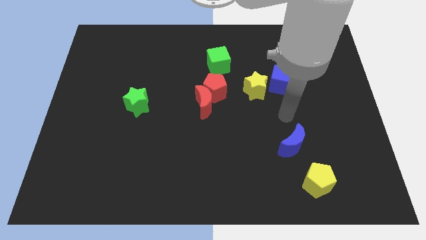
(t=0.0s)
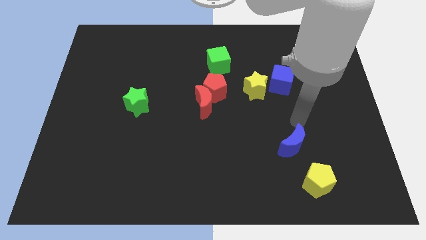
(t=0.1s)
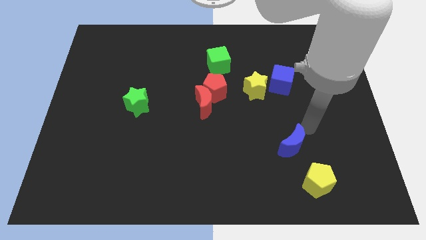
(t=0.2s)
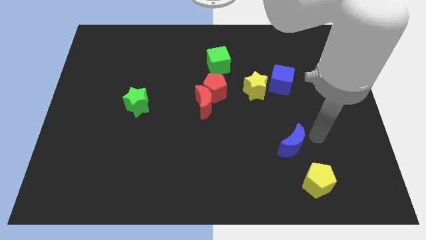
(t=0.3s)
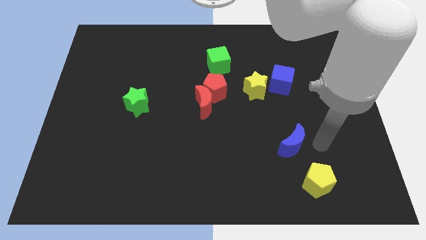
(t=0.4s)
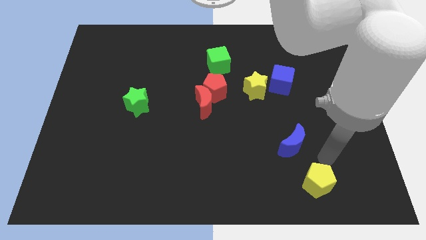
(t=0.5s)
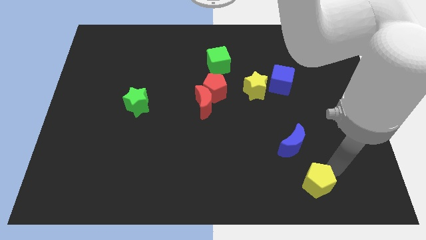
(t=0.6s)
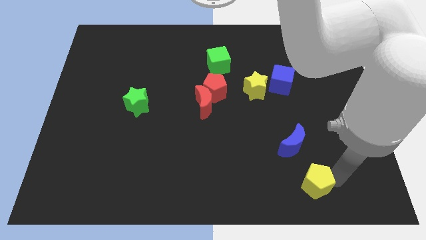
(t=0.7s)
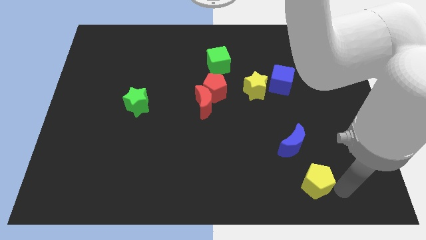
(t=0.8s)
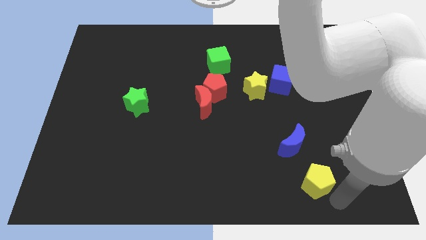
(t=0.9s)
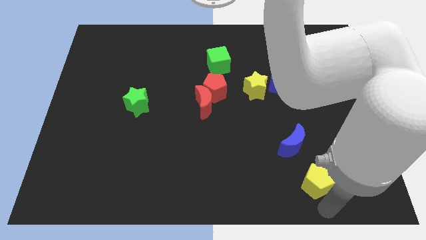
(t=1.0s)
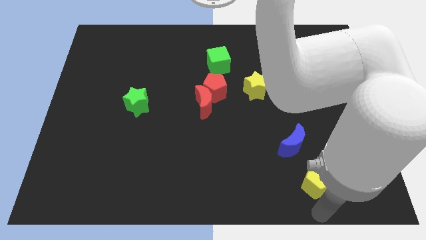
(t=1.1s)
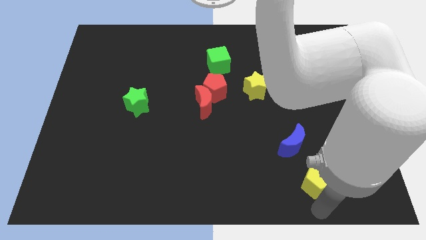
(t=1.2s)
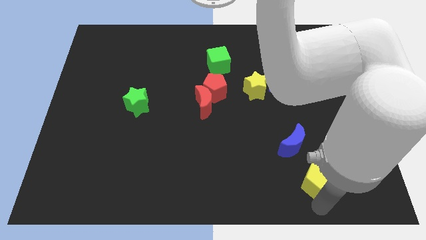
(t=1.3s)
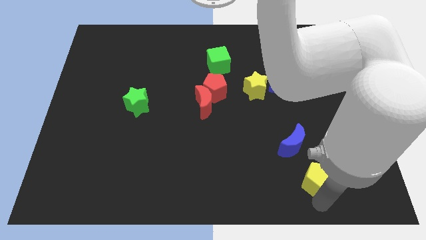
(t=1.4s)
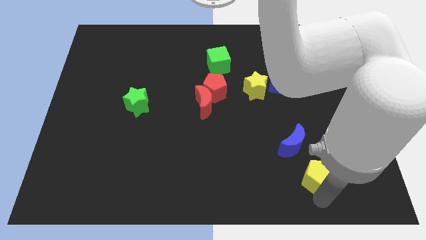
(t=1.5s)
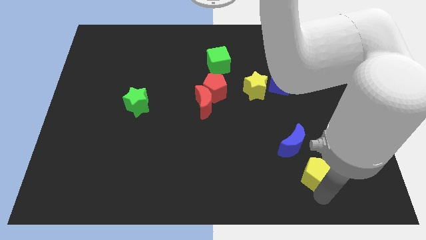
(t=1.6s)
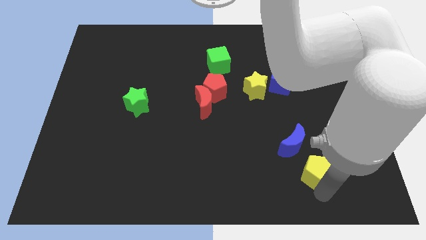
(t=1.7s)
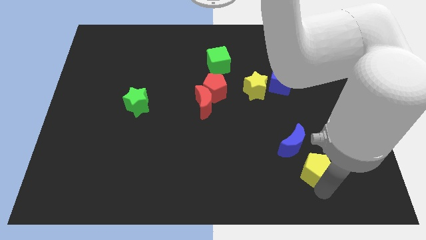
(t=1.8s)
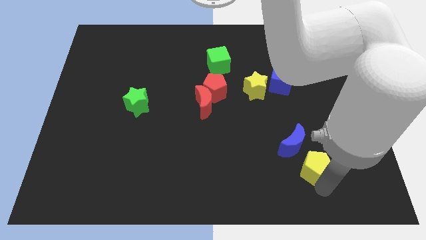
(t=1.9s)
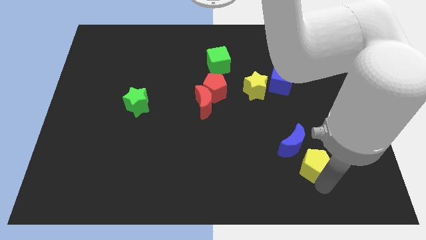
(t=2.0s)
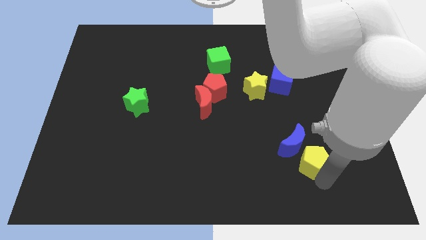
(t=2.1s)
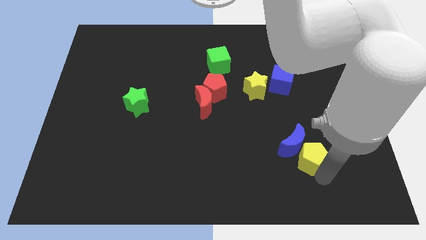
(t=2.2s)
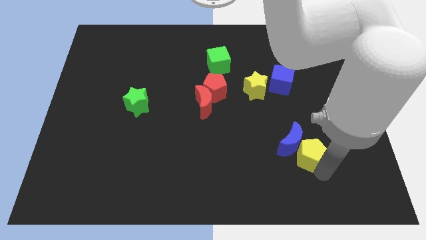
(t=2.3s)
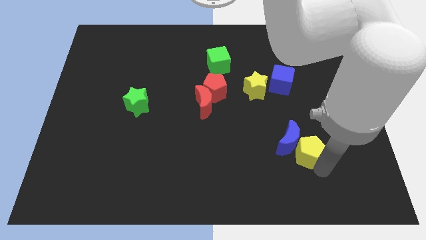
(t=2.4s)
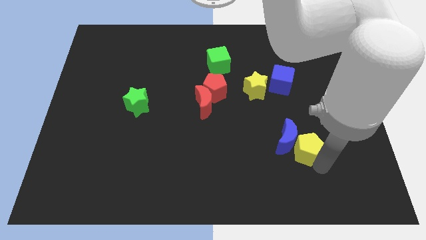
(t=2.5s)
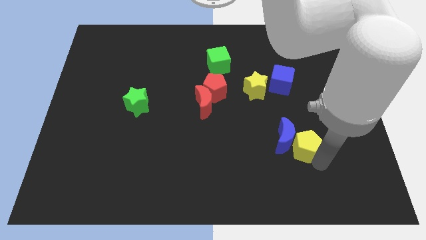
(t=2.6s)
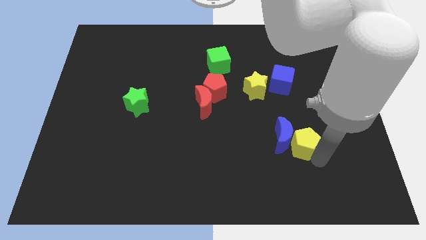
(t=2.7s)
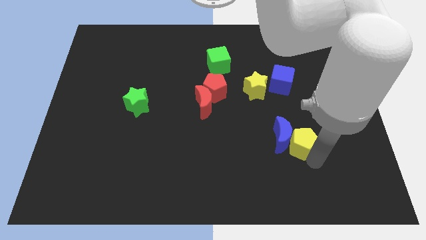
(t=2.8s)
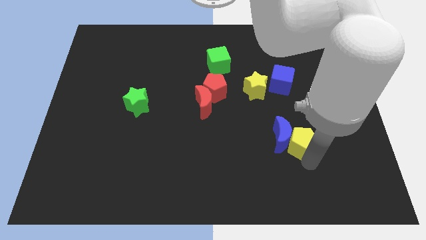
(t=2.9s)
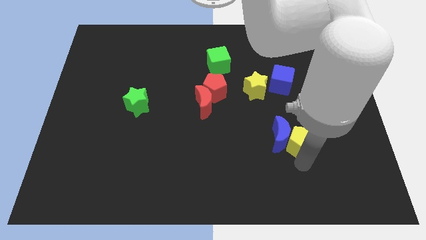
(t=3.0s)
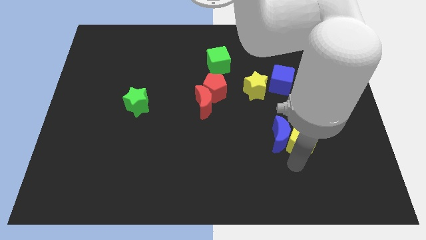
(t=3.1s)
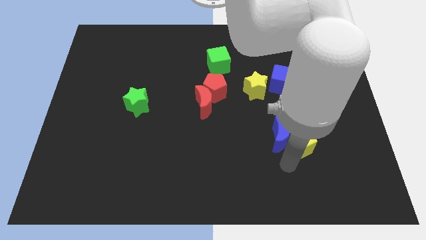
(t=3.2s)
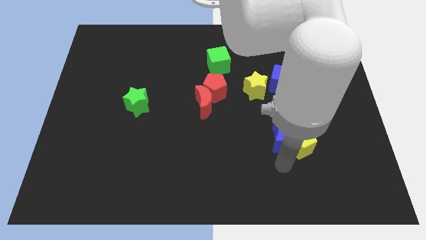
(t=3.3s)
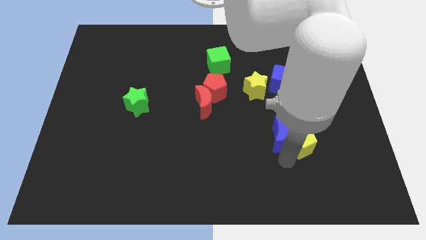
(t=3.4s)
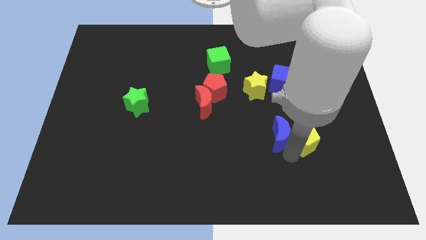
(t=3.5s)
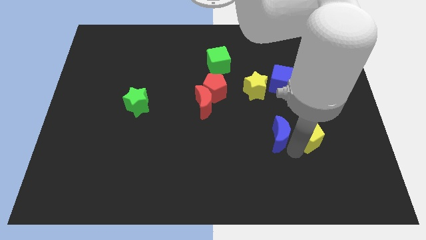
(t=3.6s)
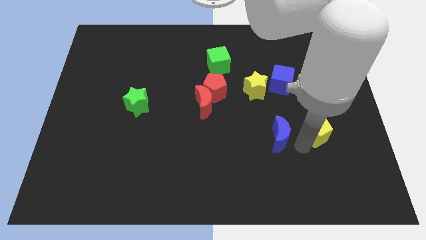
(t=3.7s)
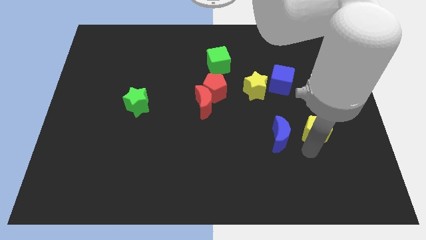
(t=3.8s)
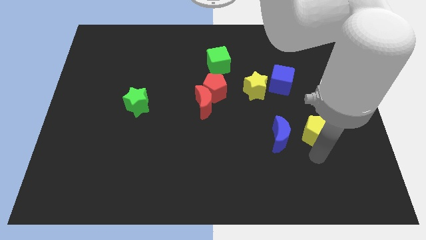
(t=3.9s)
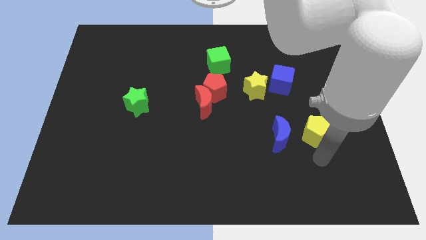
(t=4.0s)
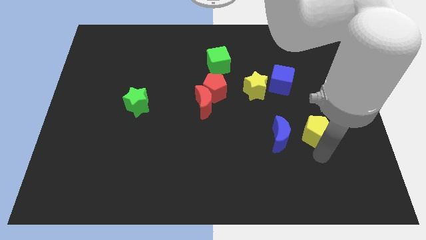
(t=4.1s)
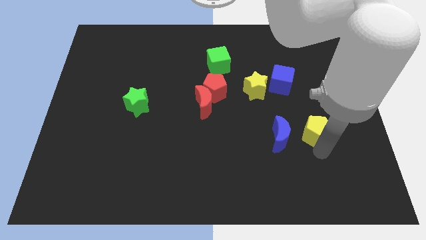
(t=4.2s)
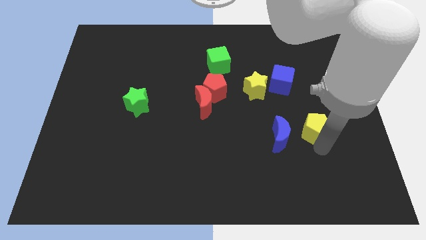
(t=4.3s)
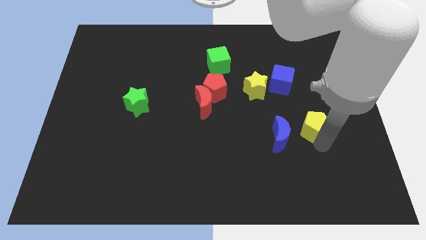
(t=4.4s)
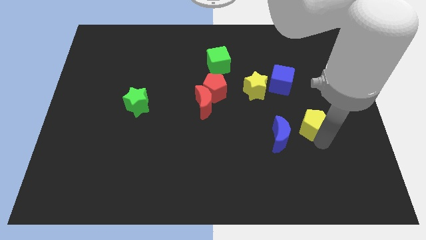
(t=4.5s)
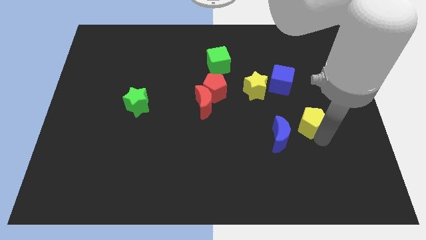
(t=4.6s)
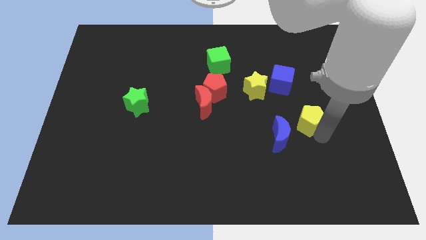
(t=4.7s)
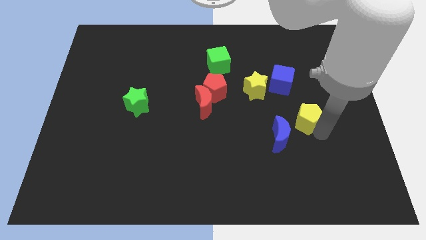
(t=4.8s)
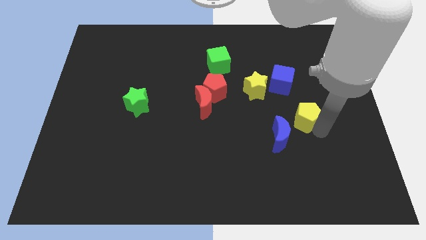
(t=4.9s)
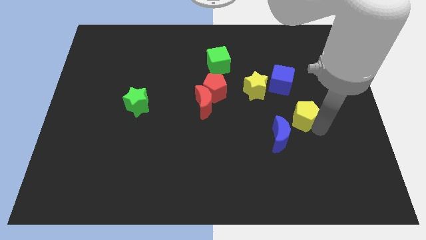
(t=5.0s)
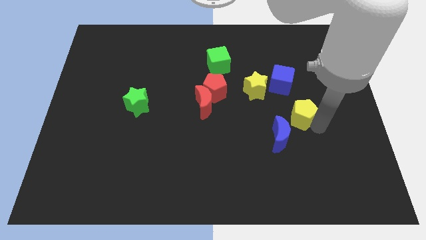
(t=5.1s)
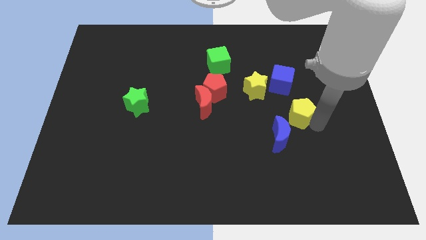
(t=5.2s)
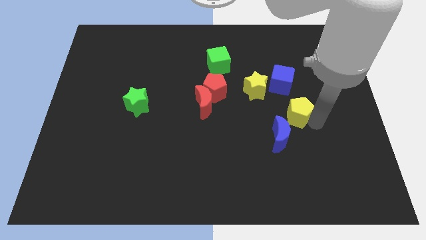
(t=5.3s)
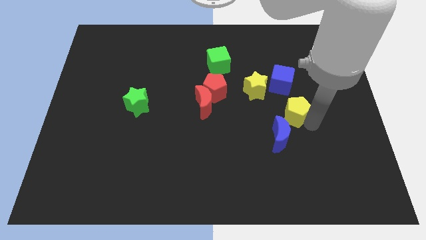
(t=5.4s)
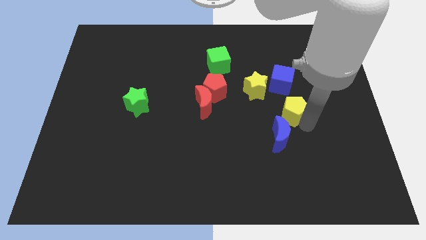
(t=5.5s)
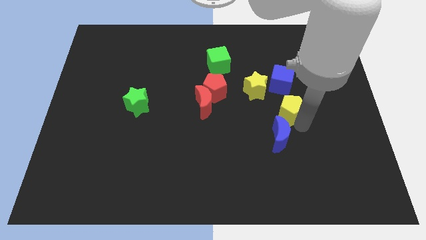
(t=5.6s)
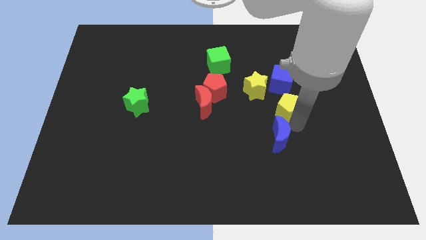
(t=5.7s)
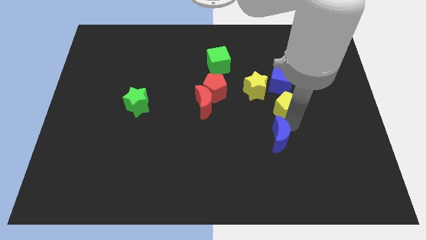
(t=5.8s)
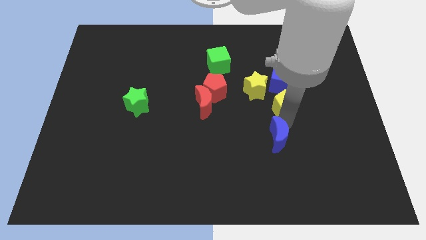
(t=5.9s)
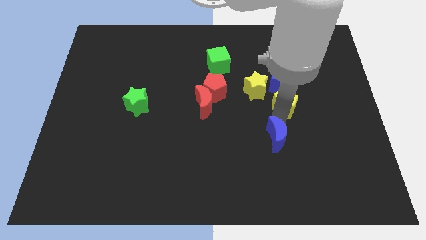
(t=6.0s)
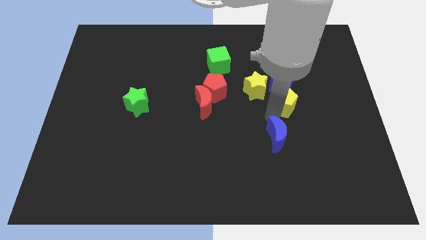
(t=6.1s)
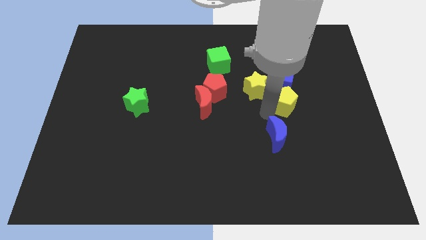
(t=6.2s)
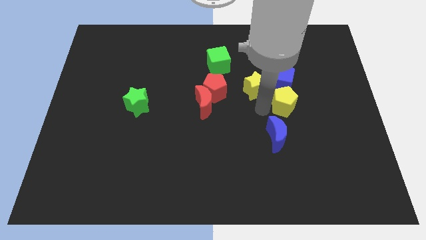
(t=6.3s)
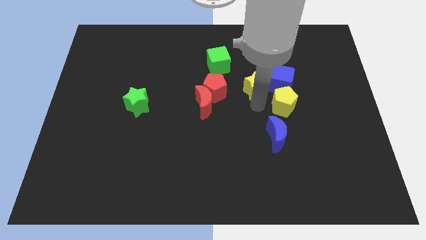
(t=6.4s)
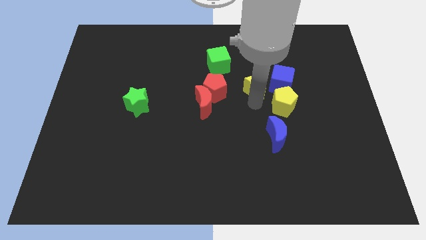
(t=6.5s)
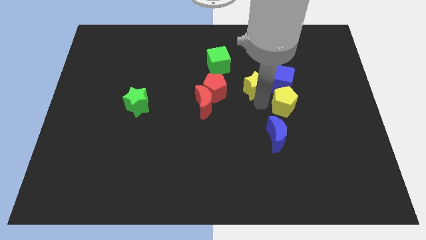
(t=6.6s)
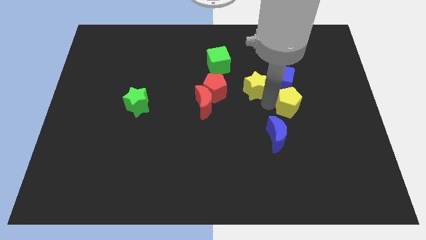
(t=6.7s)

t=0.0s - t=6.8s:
push the yellow pentagon upwards

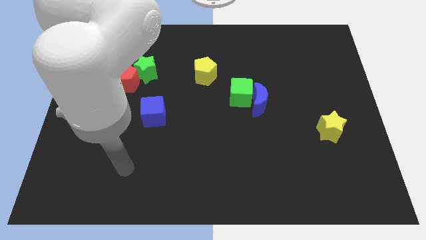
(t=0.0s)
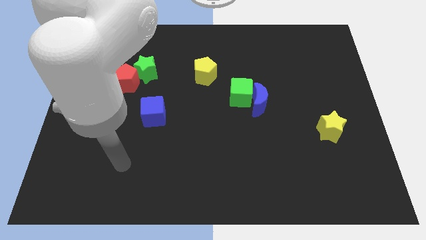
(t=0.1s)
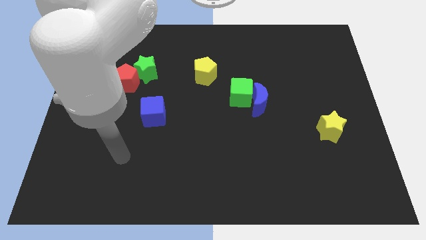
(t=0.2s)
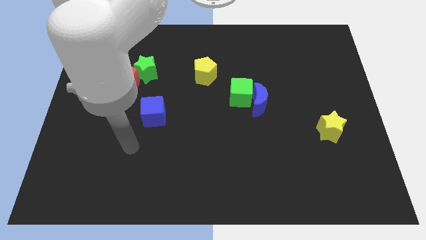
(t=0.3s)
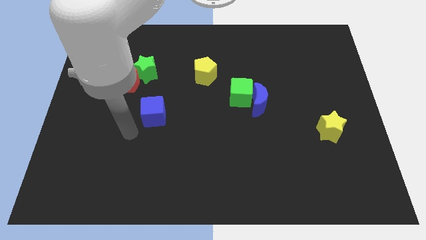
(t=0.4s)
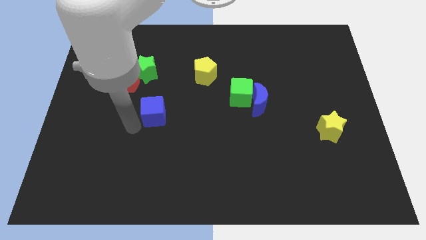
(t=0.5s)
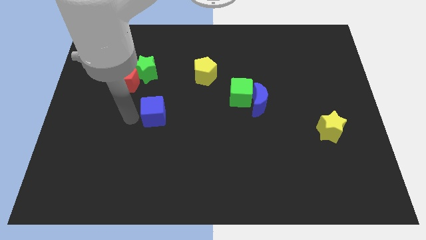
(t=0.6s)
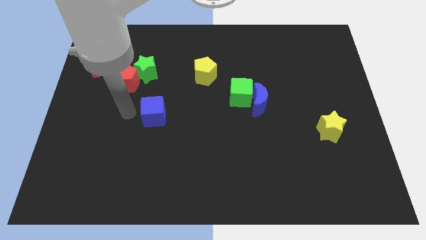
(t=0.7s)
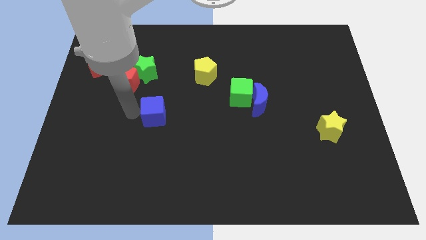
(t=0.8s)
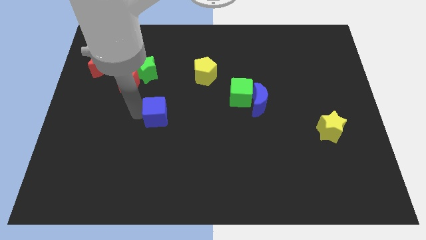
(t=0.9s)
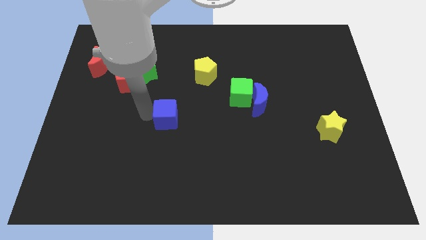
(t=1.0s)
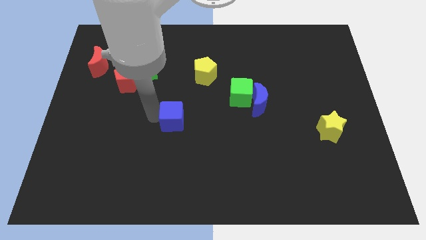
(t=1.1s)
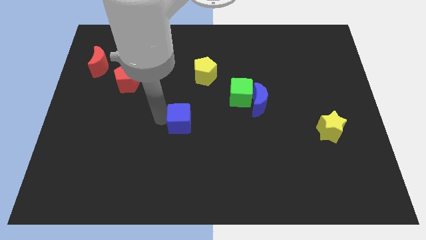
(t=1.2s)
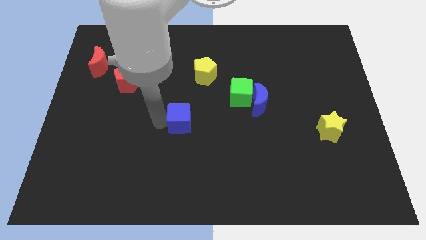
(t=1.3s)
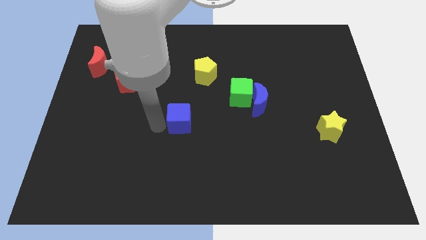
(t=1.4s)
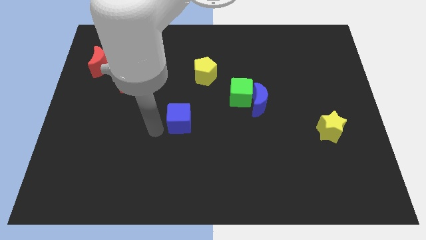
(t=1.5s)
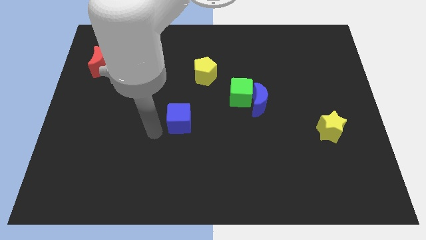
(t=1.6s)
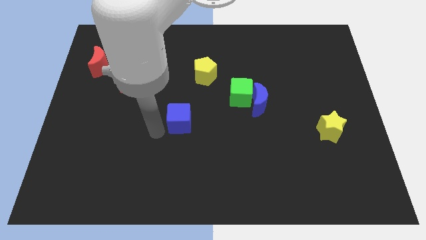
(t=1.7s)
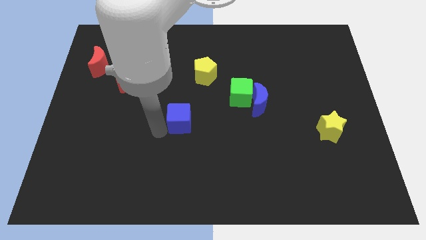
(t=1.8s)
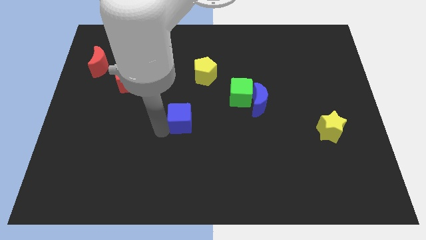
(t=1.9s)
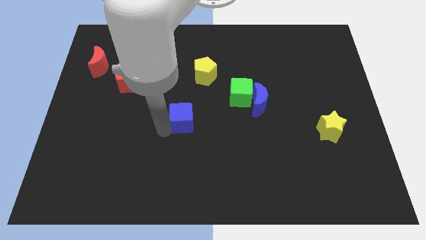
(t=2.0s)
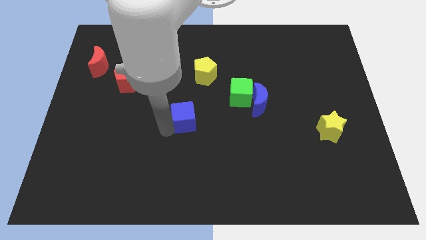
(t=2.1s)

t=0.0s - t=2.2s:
slide the blue cube to the right somewhat
